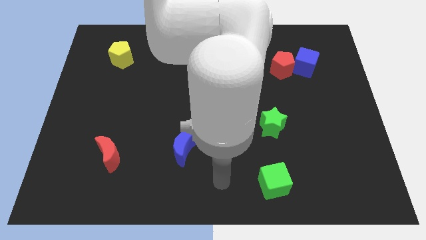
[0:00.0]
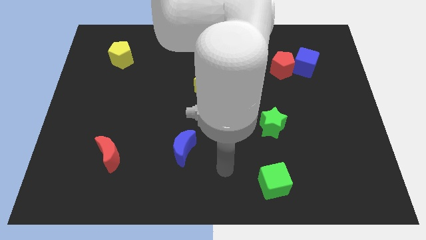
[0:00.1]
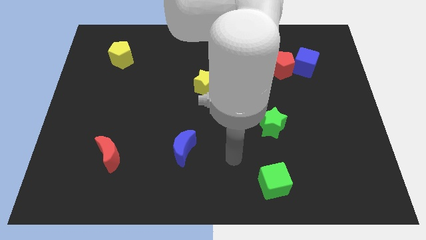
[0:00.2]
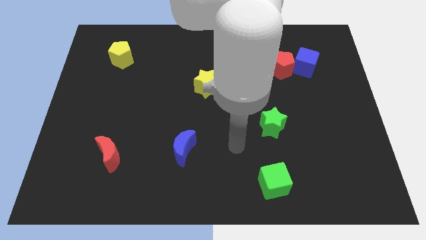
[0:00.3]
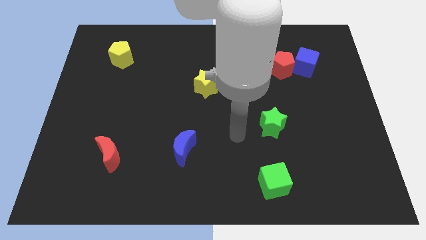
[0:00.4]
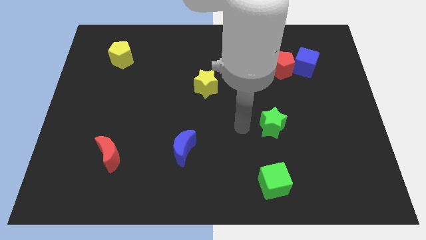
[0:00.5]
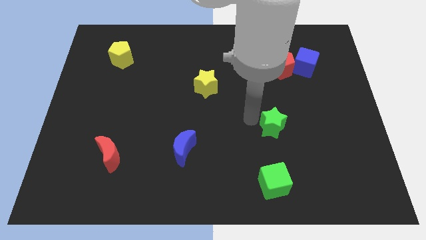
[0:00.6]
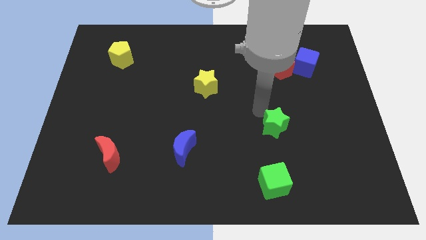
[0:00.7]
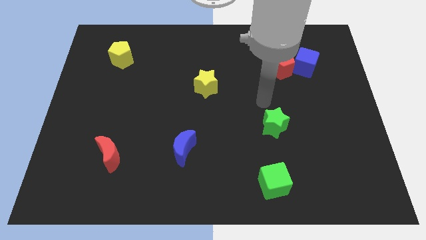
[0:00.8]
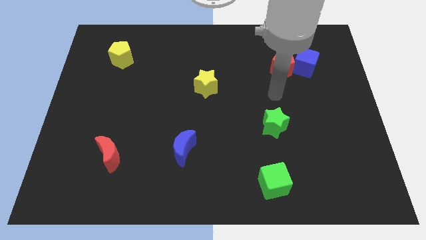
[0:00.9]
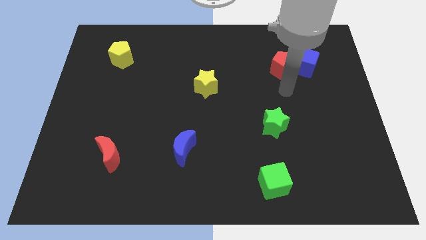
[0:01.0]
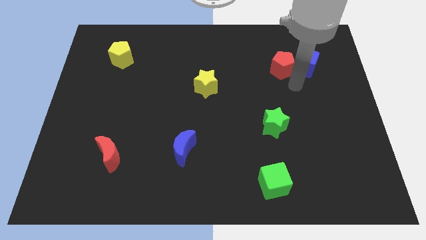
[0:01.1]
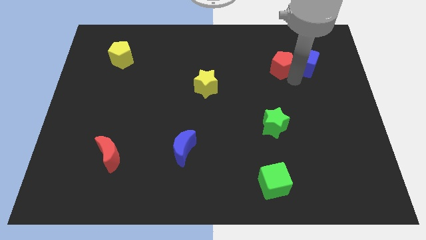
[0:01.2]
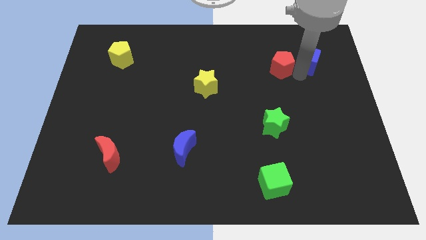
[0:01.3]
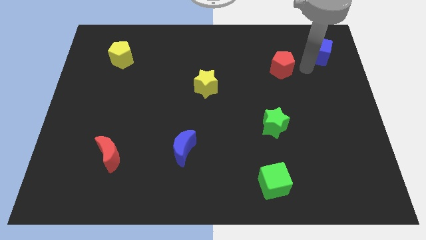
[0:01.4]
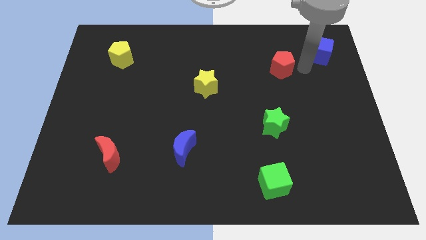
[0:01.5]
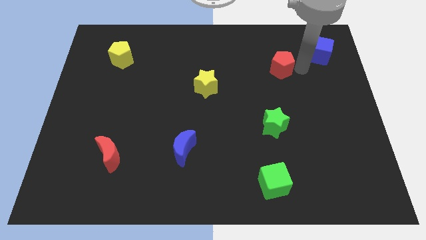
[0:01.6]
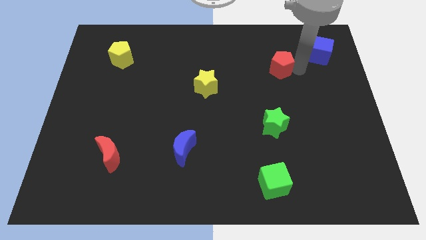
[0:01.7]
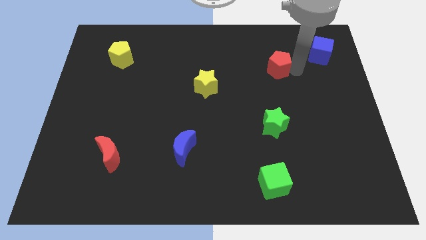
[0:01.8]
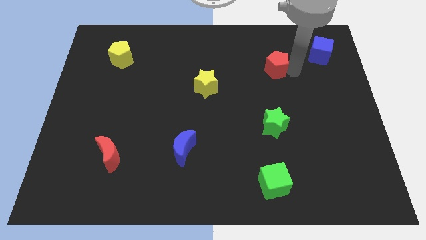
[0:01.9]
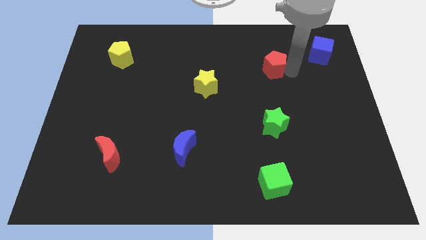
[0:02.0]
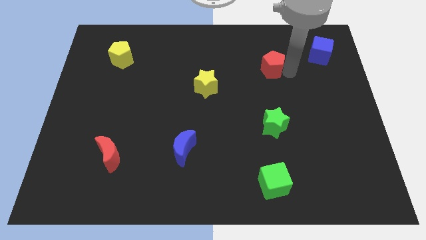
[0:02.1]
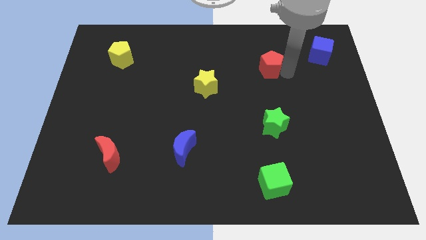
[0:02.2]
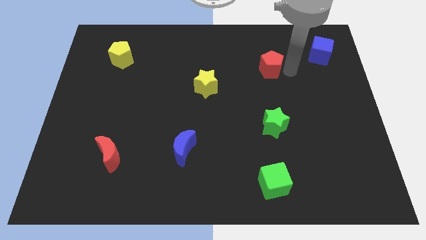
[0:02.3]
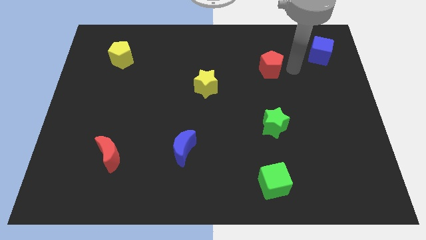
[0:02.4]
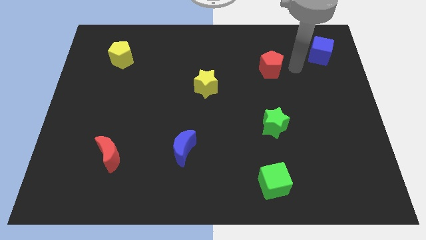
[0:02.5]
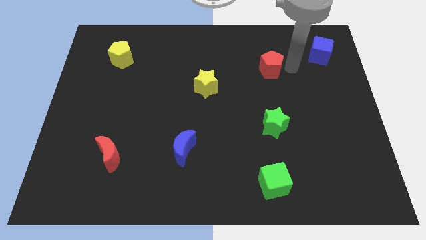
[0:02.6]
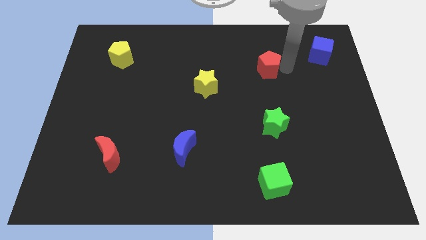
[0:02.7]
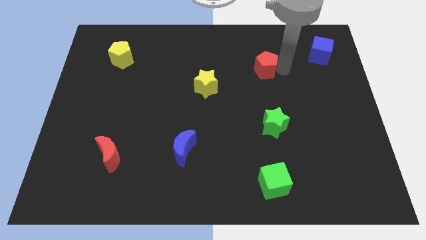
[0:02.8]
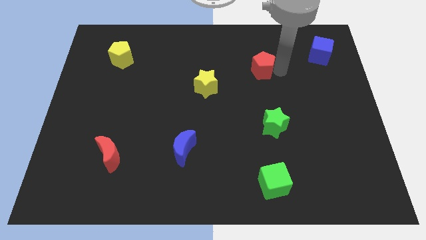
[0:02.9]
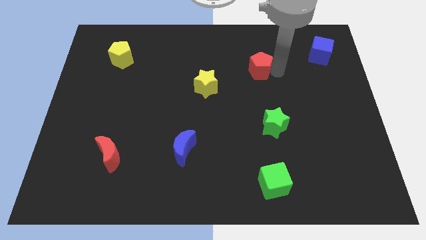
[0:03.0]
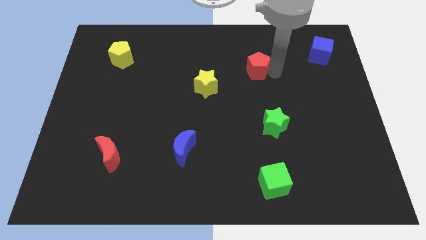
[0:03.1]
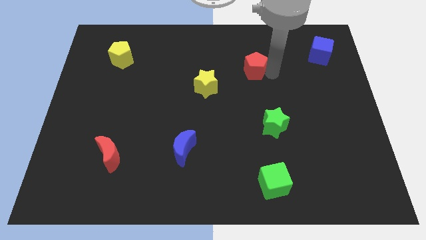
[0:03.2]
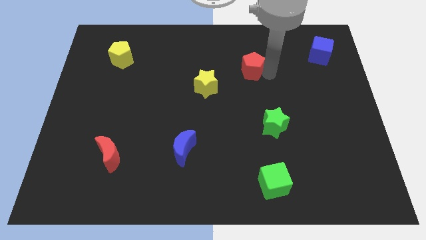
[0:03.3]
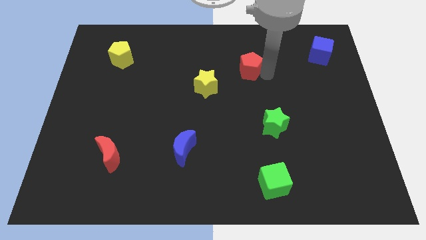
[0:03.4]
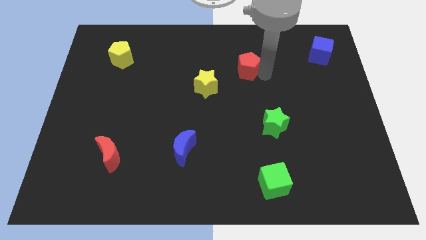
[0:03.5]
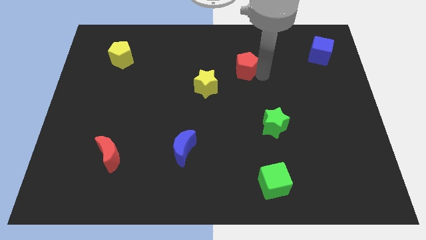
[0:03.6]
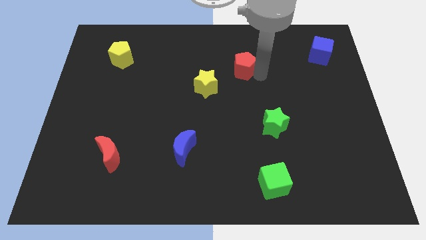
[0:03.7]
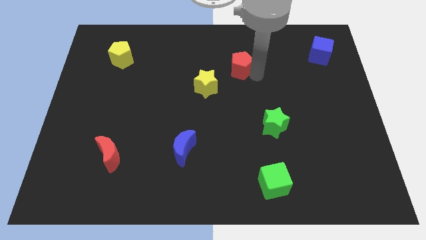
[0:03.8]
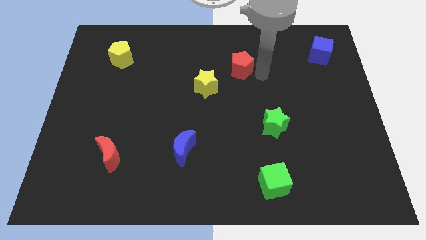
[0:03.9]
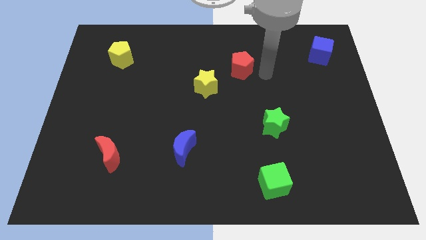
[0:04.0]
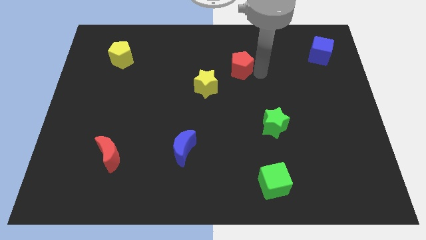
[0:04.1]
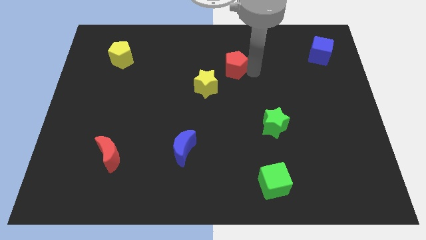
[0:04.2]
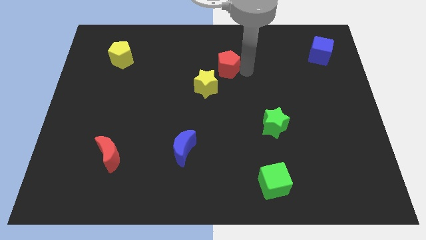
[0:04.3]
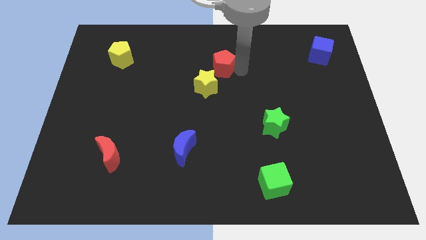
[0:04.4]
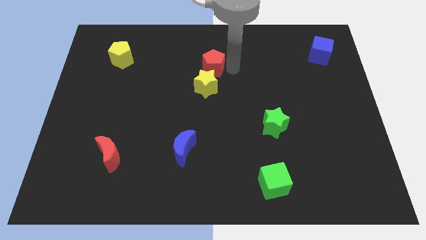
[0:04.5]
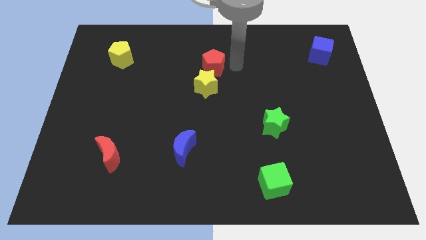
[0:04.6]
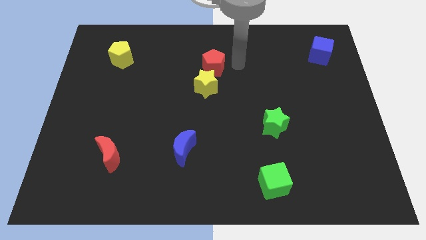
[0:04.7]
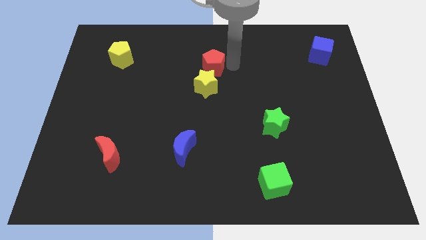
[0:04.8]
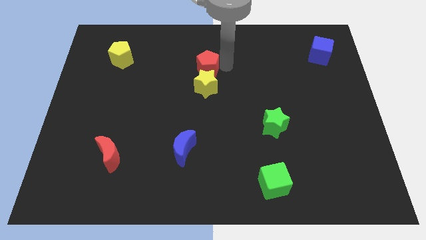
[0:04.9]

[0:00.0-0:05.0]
push the red pentagon to the top left of the yellow star

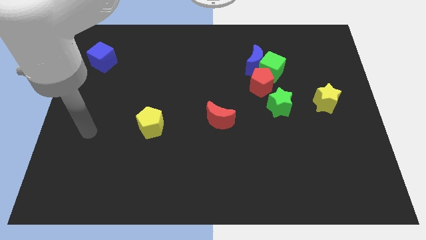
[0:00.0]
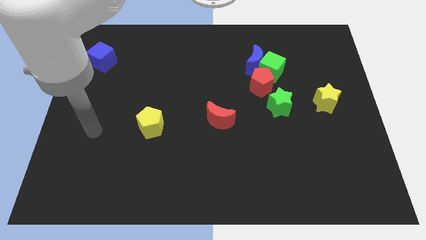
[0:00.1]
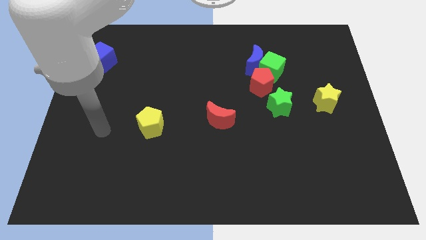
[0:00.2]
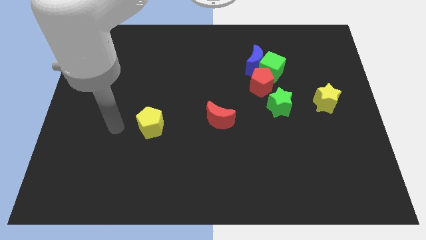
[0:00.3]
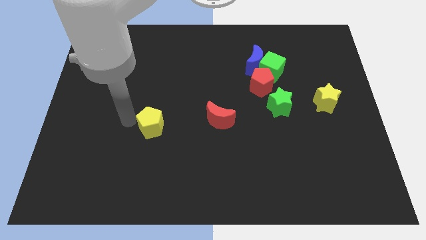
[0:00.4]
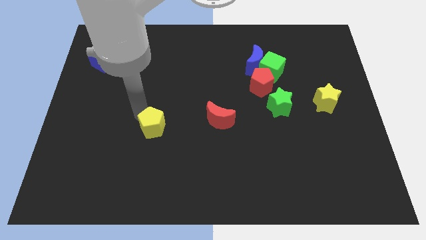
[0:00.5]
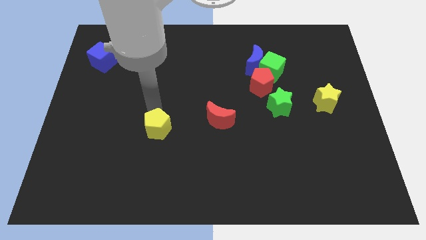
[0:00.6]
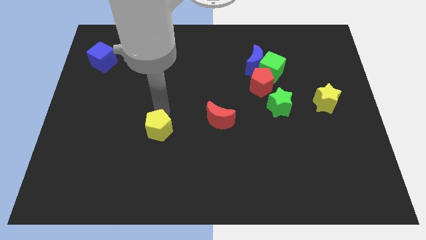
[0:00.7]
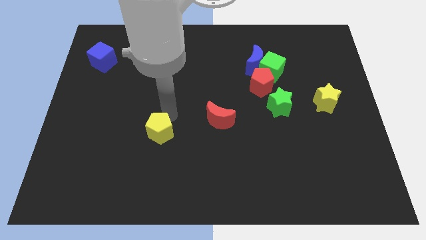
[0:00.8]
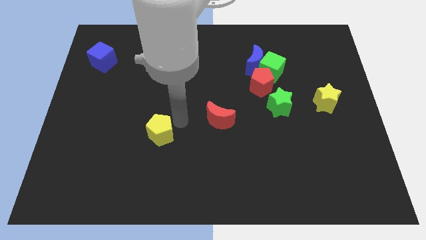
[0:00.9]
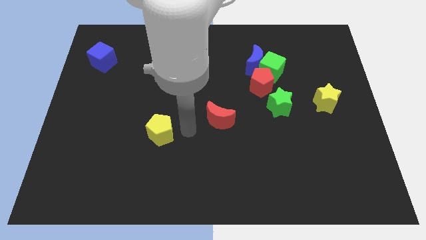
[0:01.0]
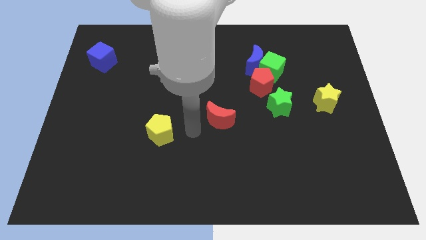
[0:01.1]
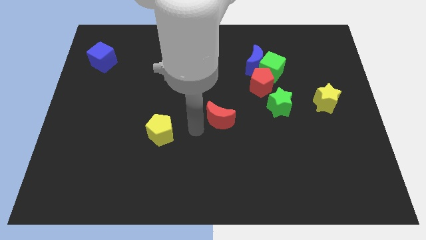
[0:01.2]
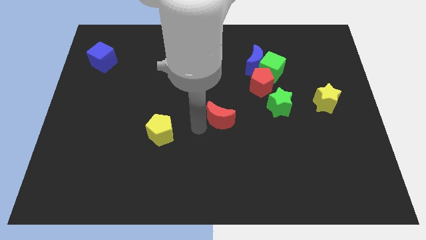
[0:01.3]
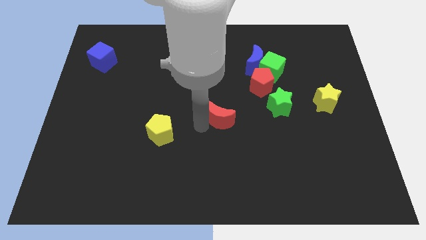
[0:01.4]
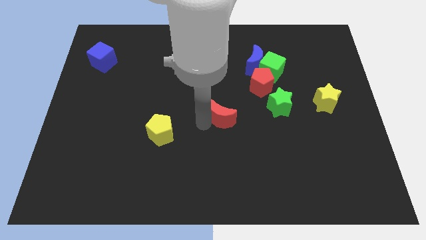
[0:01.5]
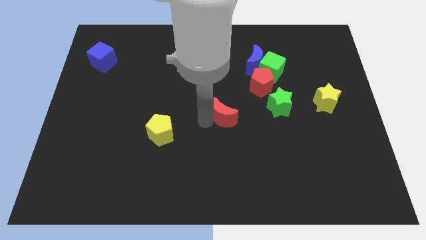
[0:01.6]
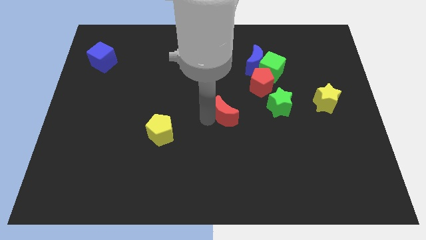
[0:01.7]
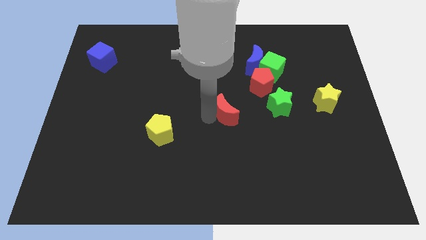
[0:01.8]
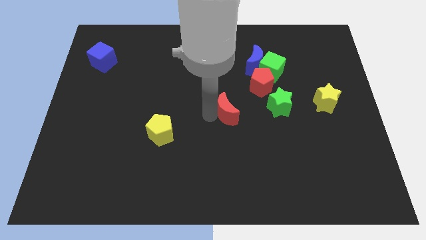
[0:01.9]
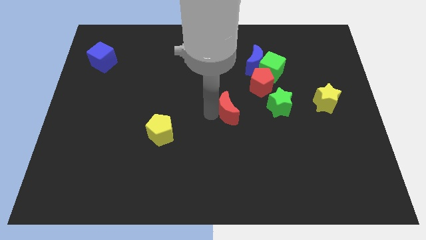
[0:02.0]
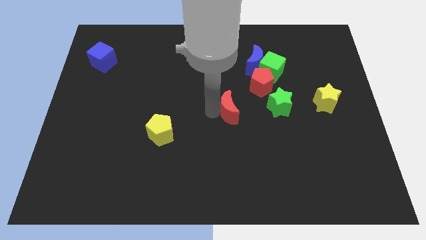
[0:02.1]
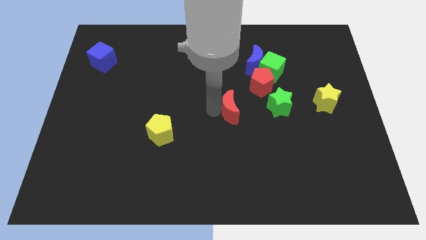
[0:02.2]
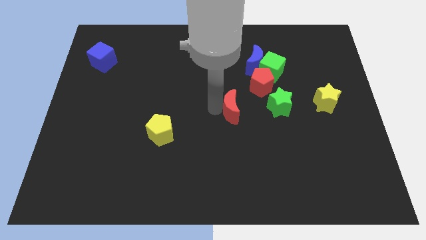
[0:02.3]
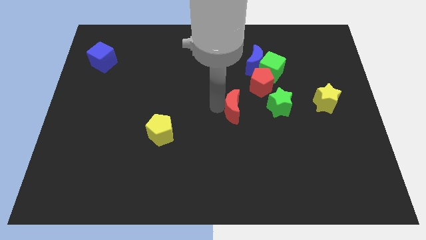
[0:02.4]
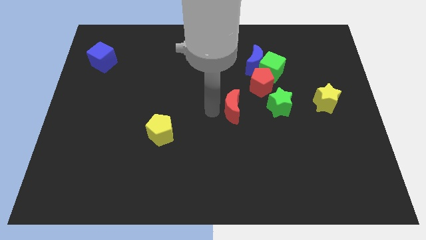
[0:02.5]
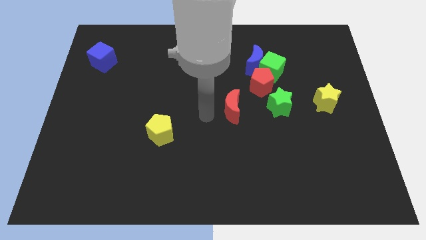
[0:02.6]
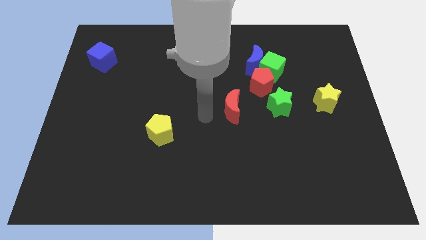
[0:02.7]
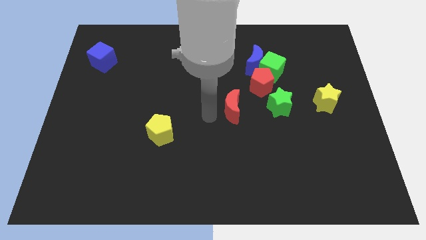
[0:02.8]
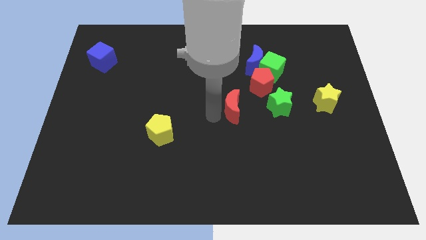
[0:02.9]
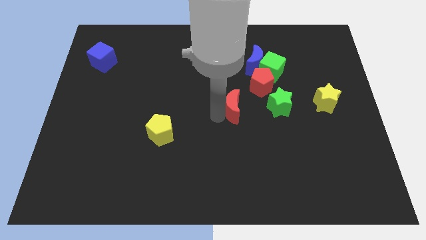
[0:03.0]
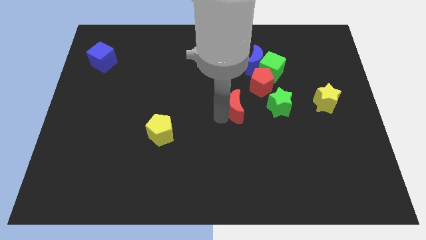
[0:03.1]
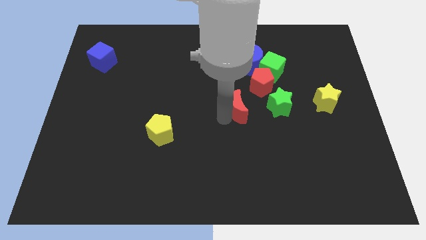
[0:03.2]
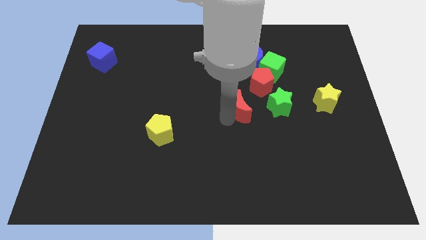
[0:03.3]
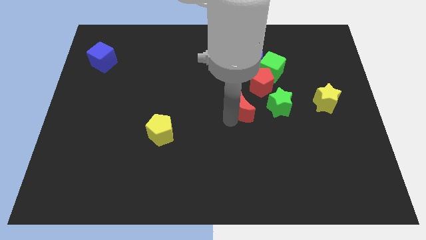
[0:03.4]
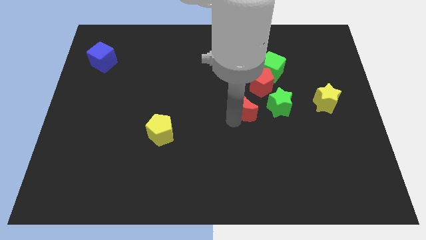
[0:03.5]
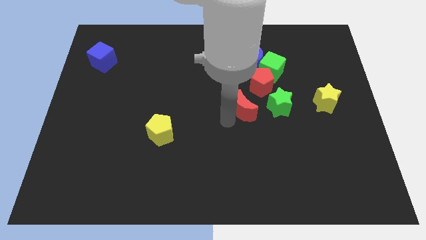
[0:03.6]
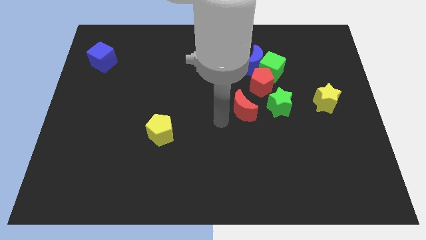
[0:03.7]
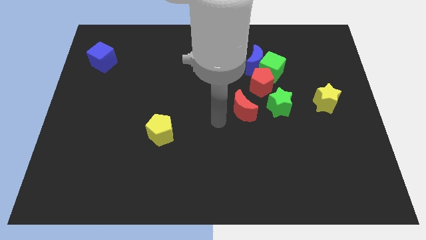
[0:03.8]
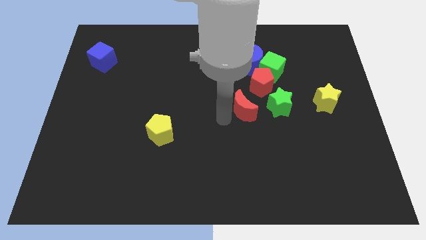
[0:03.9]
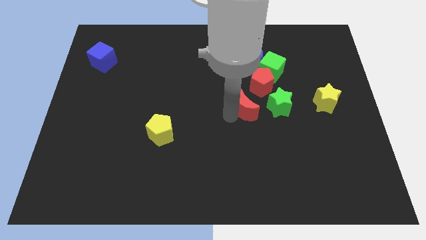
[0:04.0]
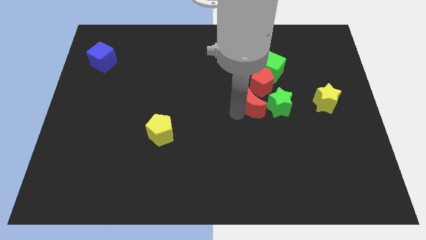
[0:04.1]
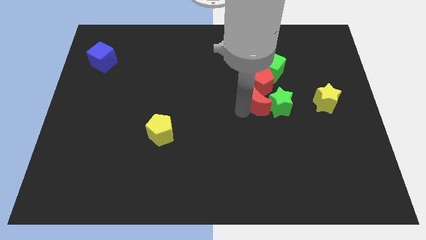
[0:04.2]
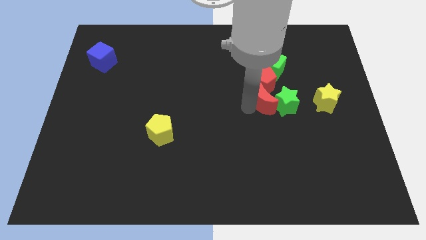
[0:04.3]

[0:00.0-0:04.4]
push the red moon to the left of the yellow star
